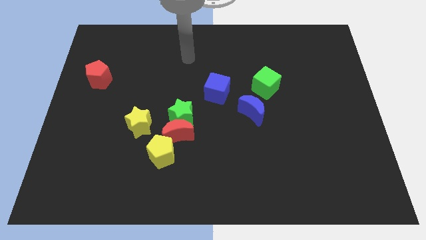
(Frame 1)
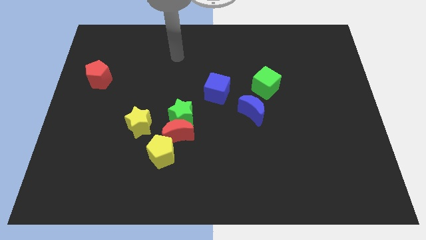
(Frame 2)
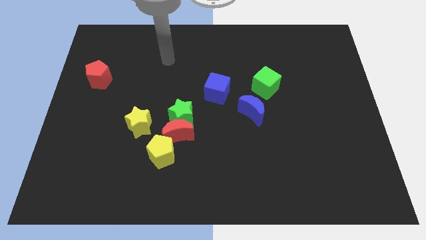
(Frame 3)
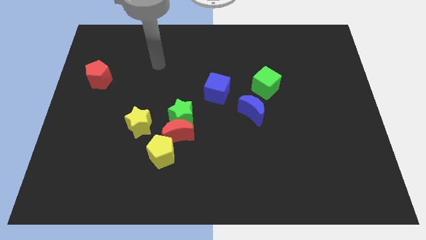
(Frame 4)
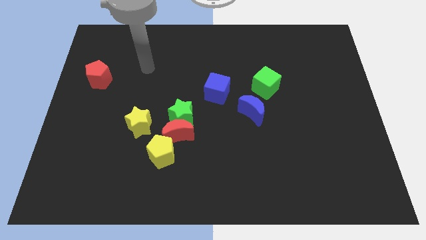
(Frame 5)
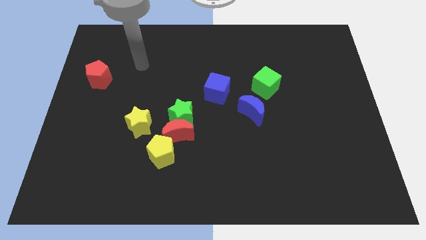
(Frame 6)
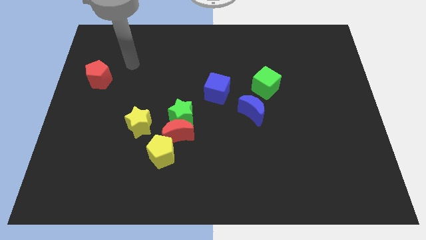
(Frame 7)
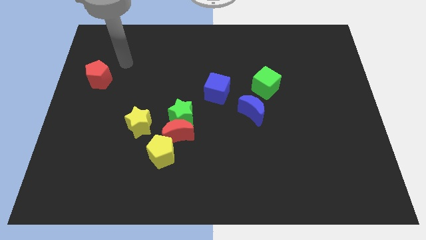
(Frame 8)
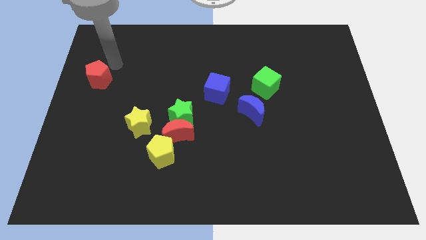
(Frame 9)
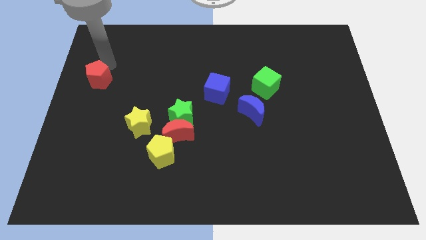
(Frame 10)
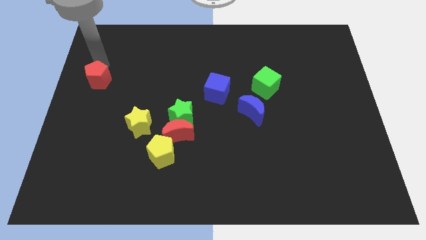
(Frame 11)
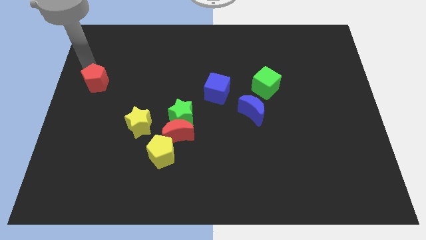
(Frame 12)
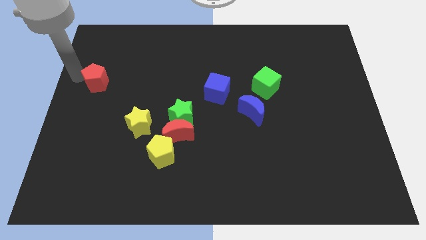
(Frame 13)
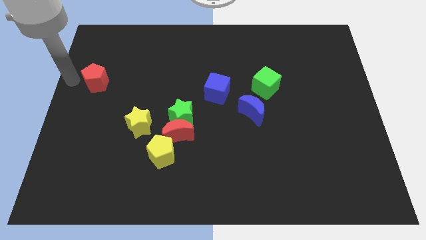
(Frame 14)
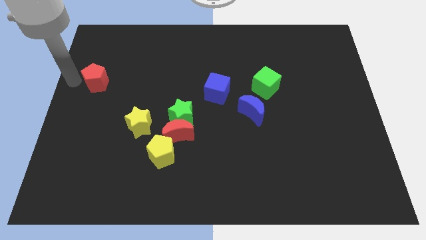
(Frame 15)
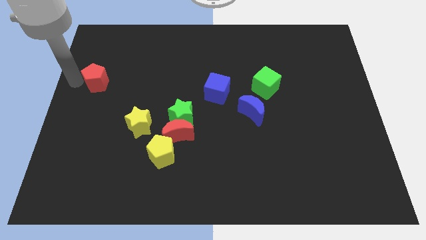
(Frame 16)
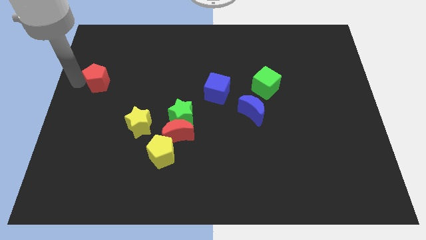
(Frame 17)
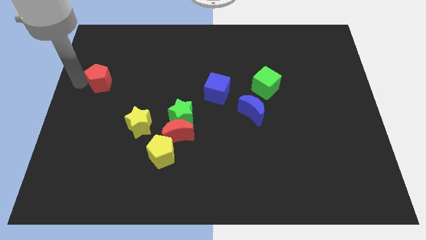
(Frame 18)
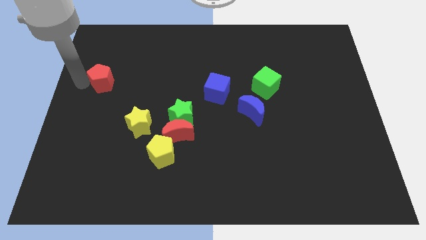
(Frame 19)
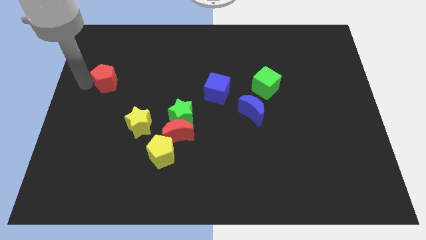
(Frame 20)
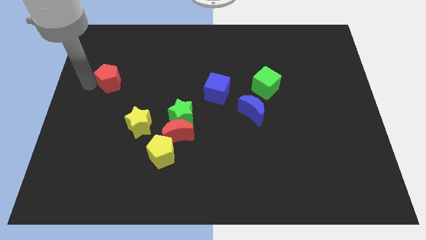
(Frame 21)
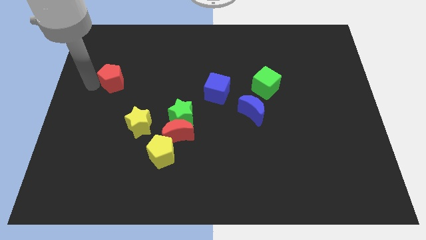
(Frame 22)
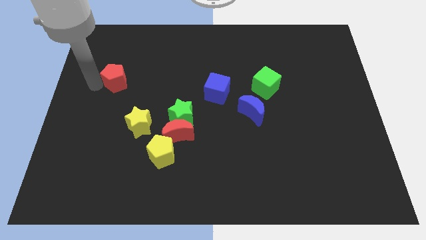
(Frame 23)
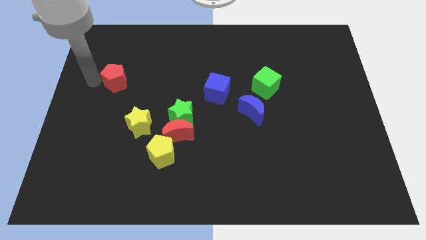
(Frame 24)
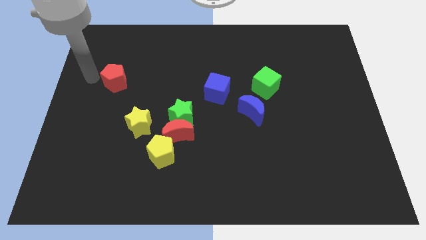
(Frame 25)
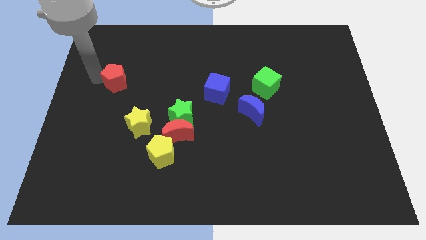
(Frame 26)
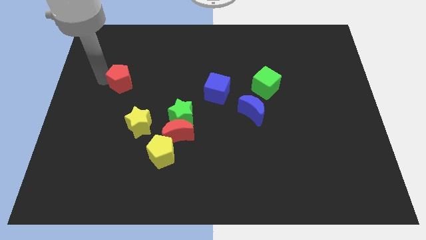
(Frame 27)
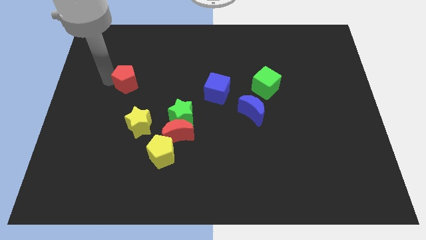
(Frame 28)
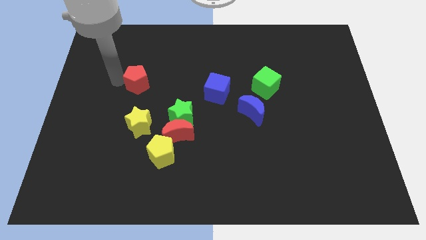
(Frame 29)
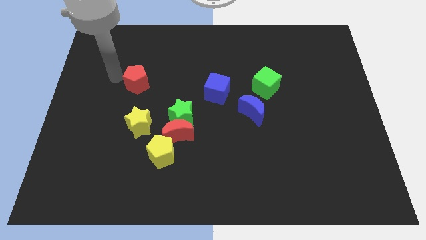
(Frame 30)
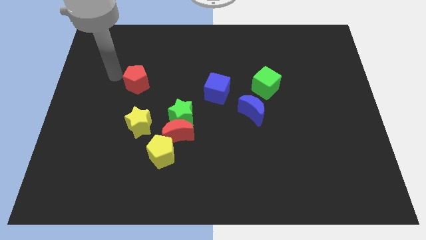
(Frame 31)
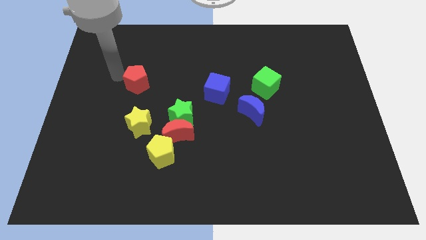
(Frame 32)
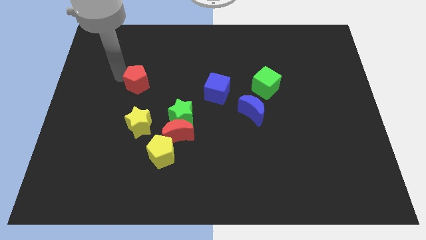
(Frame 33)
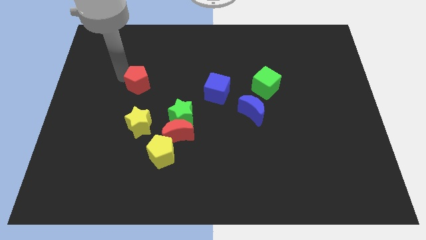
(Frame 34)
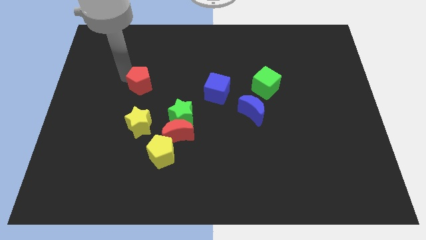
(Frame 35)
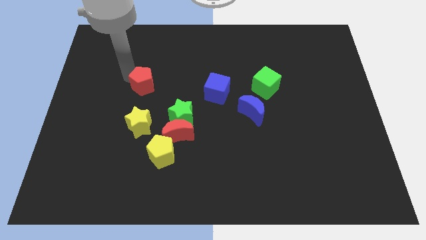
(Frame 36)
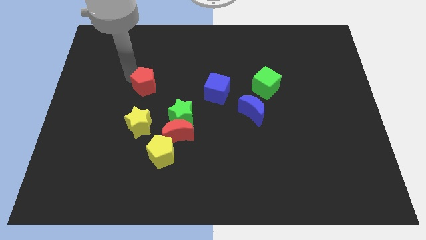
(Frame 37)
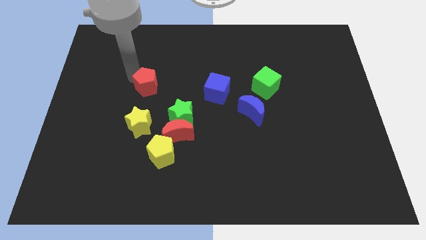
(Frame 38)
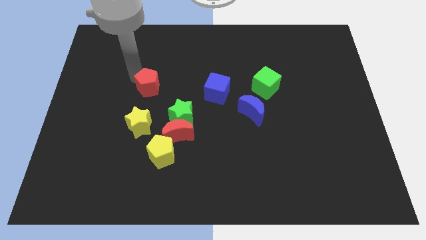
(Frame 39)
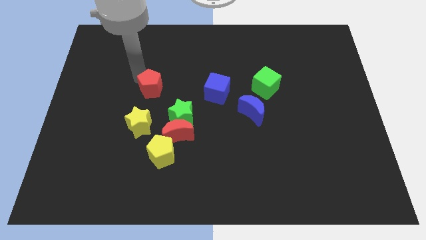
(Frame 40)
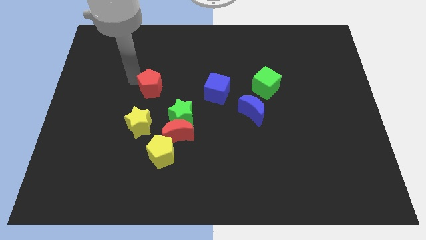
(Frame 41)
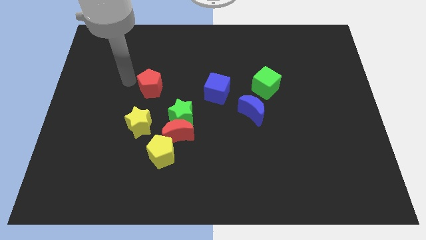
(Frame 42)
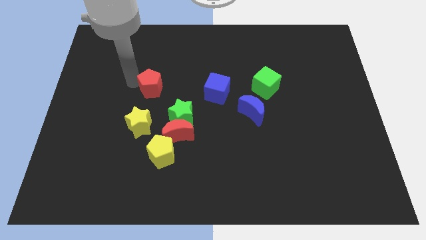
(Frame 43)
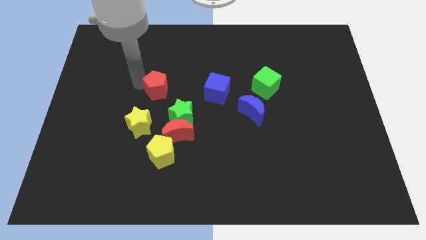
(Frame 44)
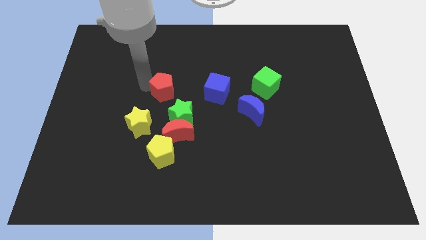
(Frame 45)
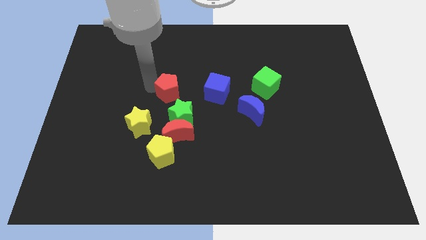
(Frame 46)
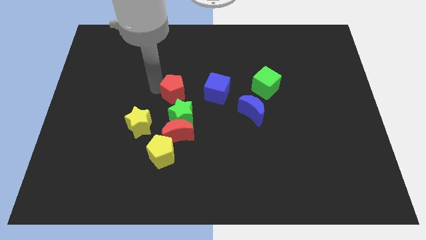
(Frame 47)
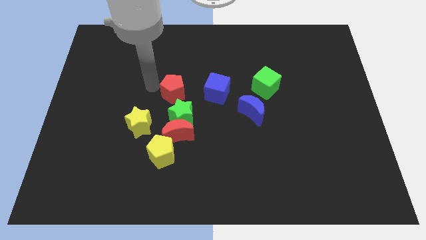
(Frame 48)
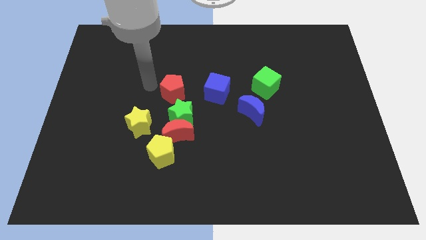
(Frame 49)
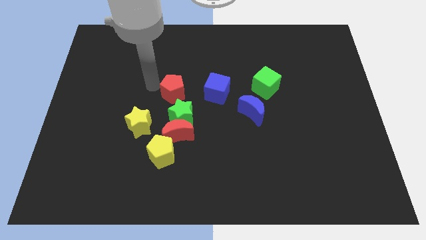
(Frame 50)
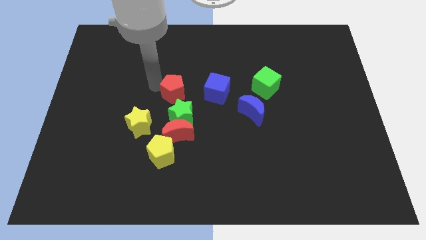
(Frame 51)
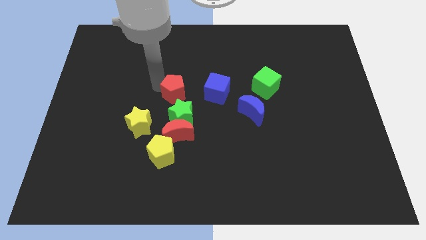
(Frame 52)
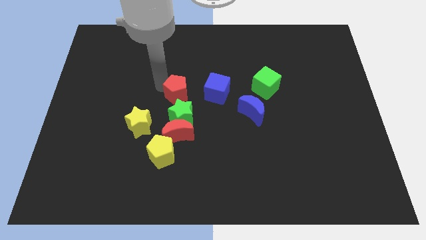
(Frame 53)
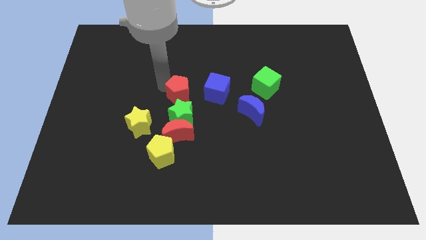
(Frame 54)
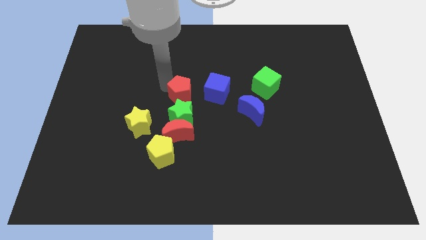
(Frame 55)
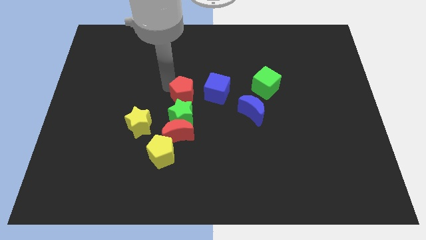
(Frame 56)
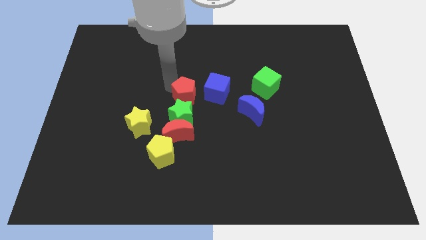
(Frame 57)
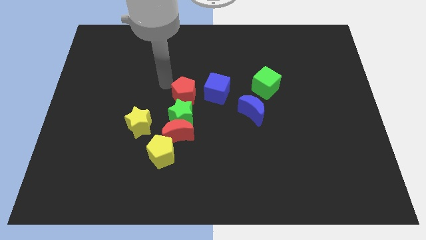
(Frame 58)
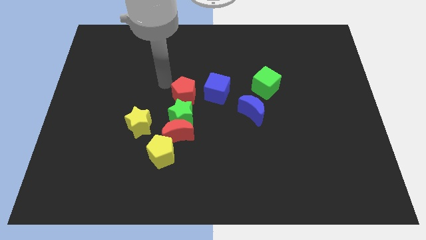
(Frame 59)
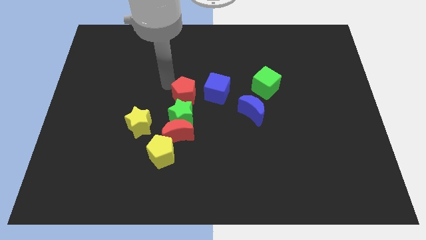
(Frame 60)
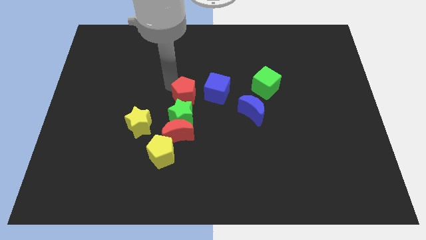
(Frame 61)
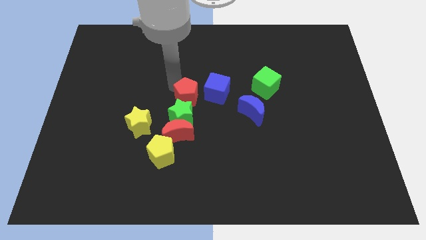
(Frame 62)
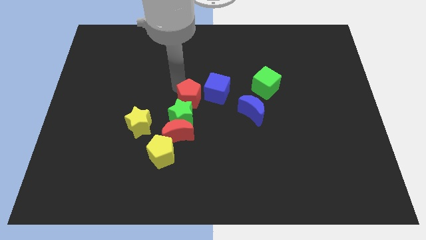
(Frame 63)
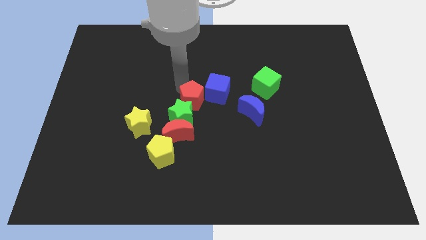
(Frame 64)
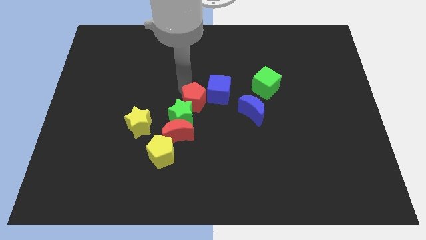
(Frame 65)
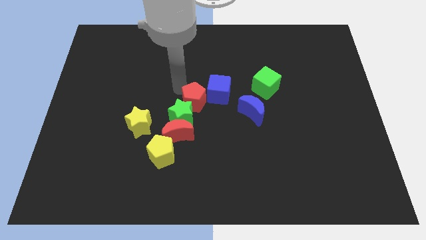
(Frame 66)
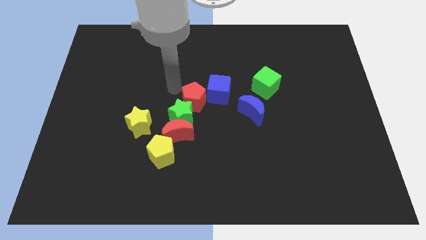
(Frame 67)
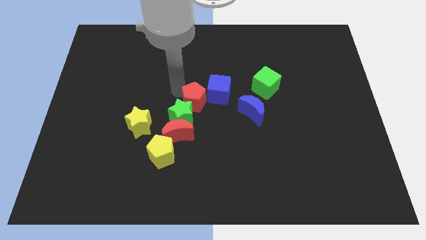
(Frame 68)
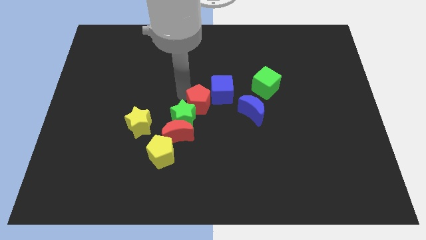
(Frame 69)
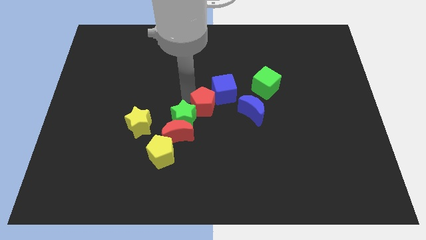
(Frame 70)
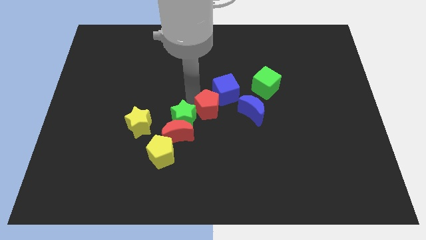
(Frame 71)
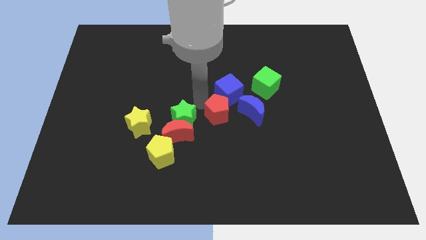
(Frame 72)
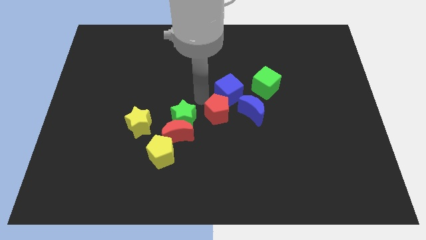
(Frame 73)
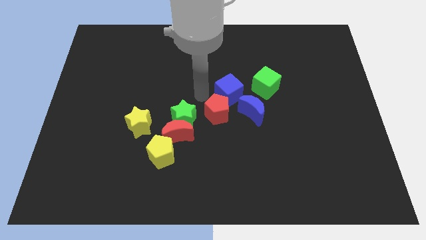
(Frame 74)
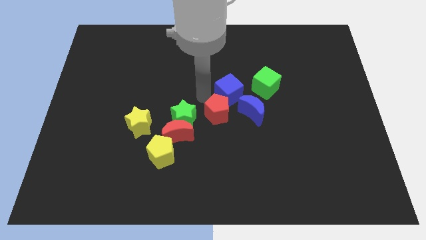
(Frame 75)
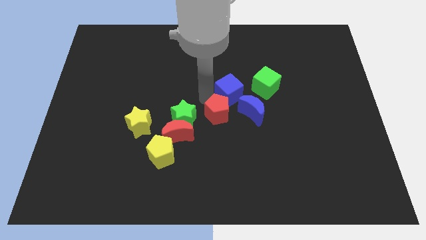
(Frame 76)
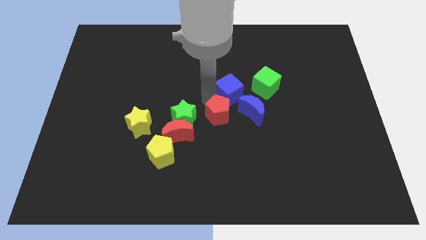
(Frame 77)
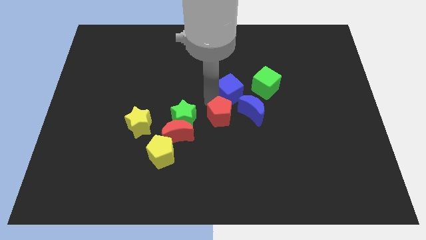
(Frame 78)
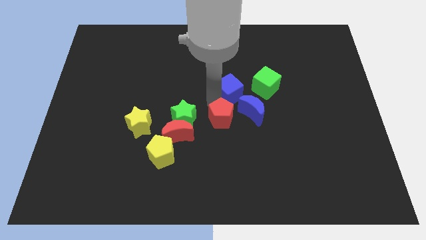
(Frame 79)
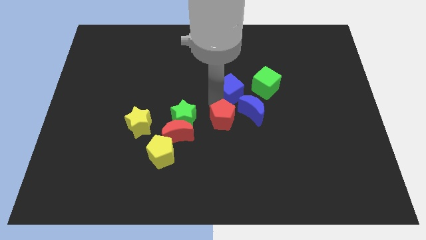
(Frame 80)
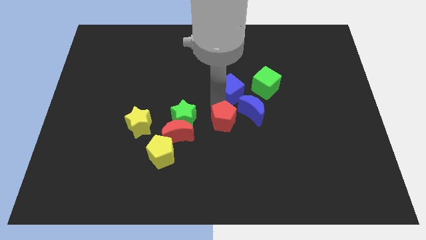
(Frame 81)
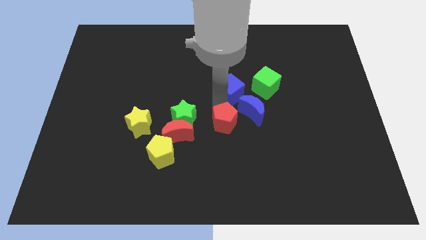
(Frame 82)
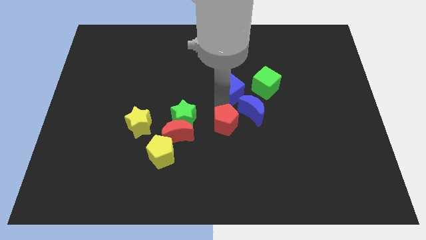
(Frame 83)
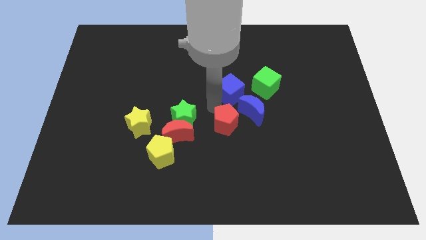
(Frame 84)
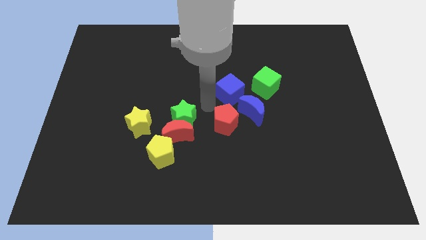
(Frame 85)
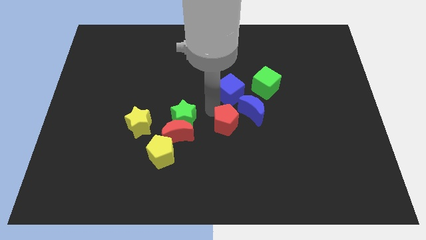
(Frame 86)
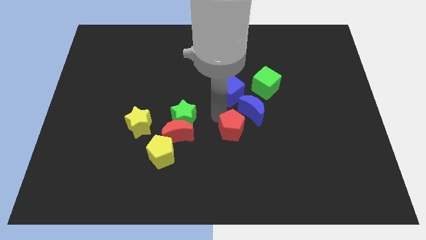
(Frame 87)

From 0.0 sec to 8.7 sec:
put the red pentagon to the bottom of the blue moon
